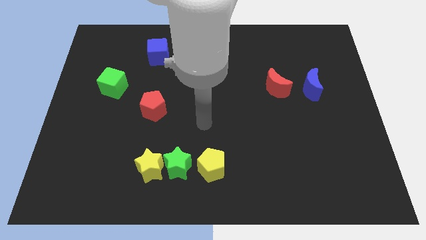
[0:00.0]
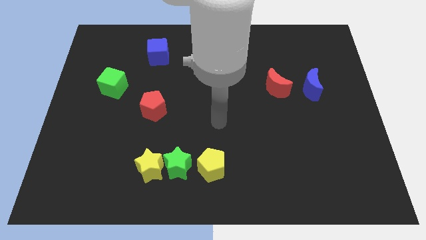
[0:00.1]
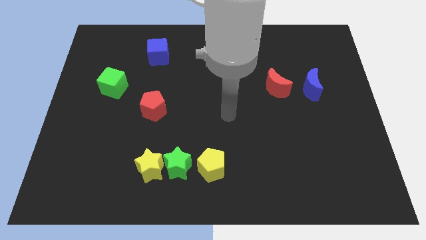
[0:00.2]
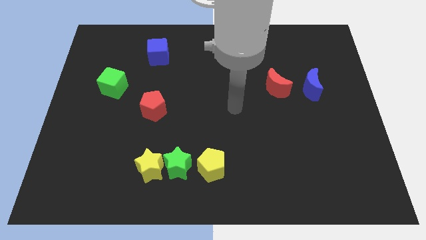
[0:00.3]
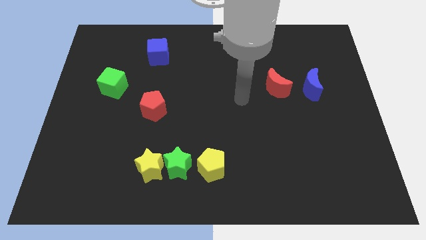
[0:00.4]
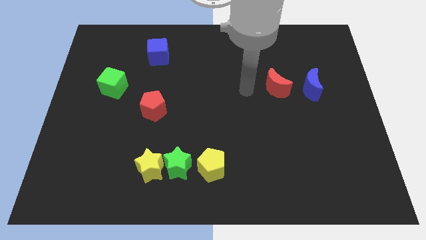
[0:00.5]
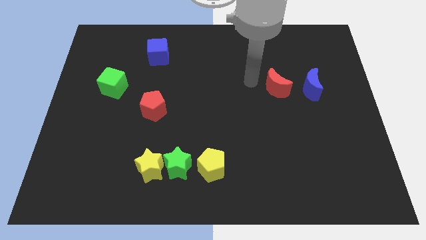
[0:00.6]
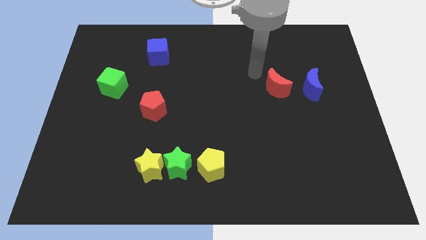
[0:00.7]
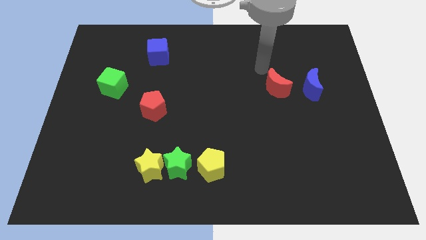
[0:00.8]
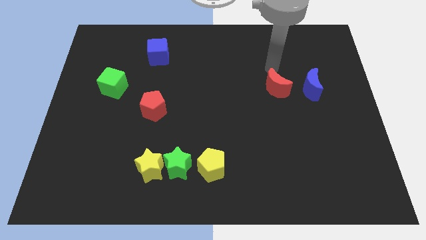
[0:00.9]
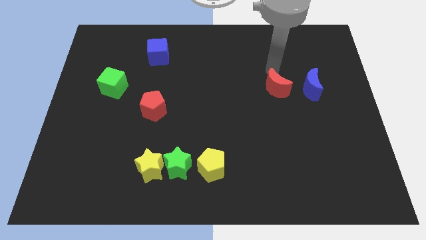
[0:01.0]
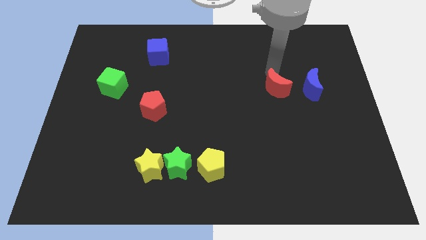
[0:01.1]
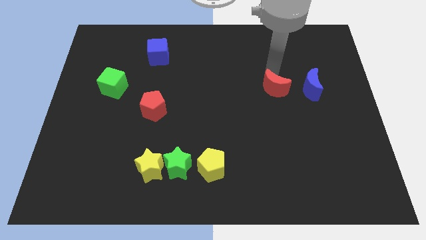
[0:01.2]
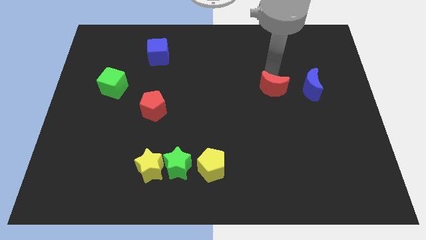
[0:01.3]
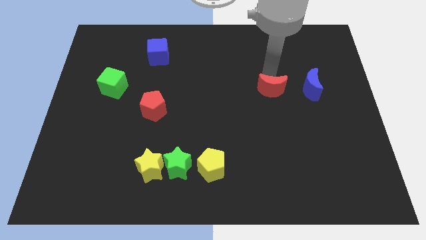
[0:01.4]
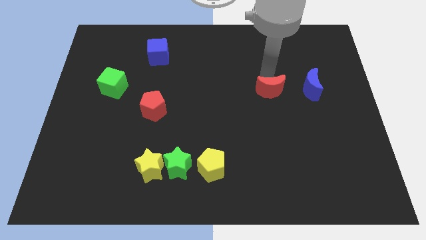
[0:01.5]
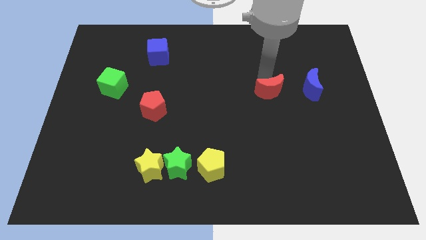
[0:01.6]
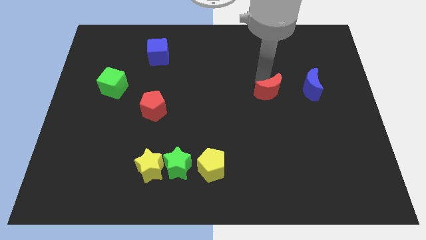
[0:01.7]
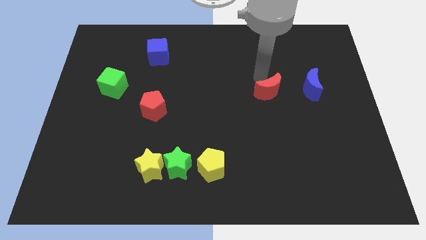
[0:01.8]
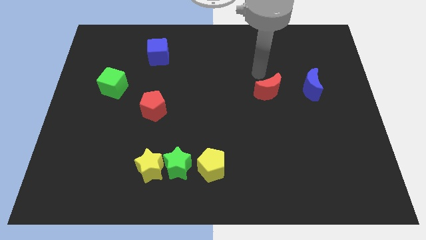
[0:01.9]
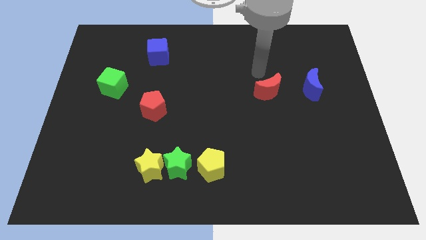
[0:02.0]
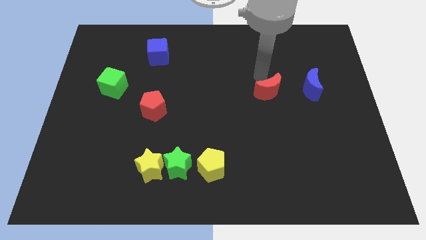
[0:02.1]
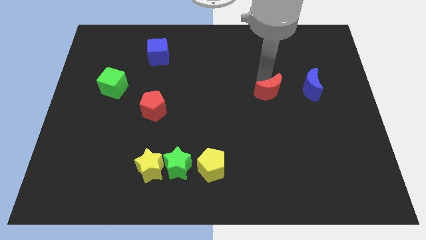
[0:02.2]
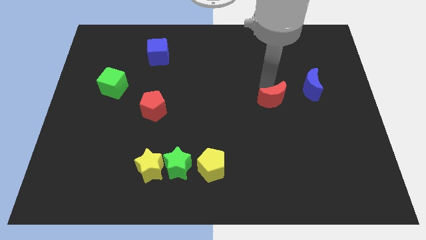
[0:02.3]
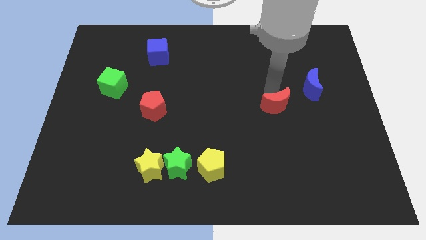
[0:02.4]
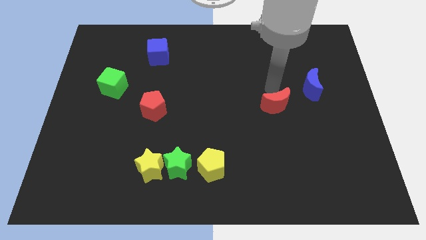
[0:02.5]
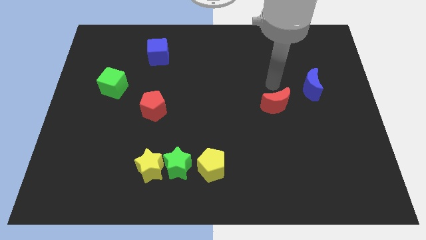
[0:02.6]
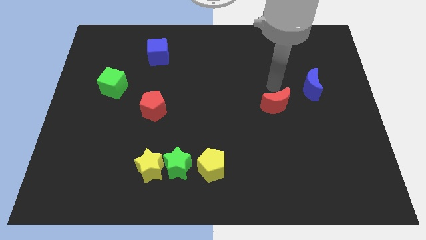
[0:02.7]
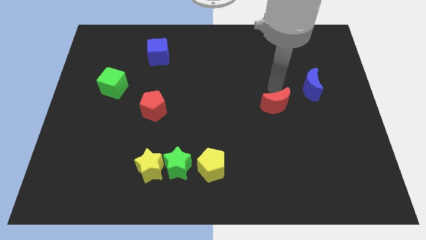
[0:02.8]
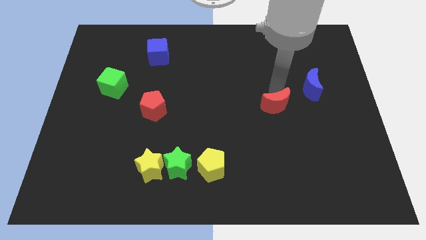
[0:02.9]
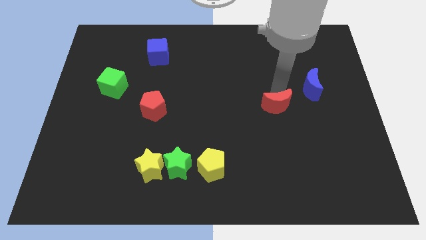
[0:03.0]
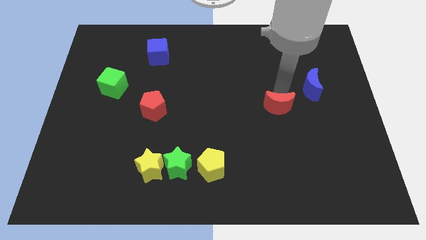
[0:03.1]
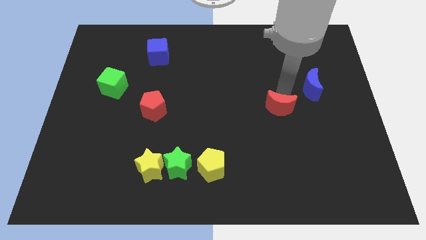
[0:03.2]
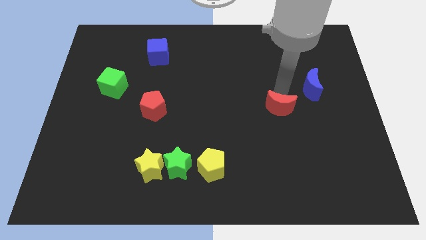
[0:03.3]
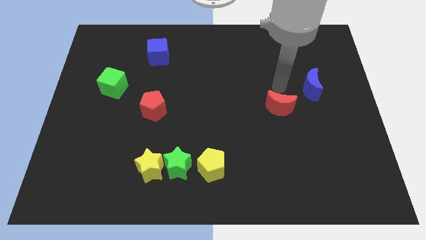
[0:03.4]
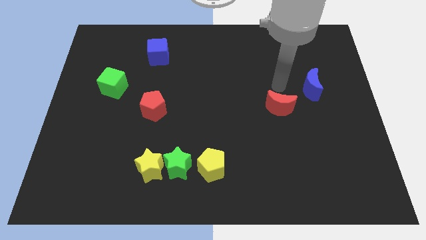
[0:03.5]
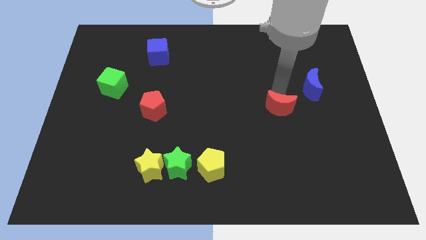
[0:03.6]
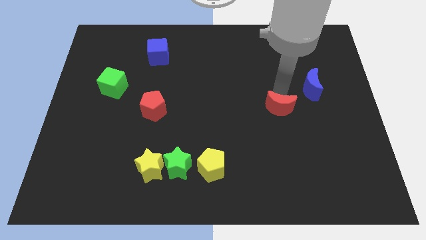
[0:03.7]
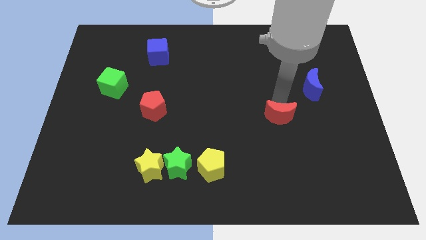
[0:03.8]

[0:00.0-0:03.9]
move the red moon downwards a little

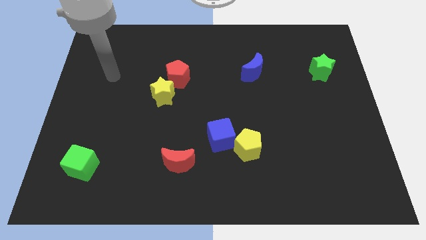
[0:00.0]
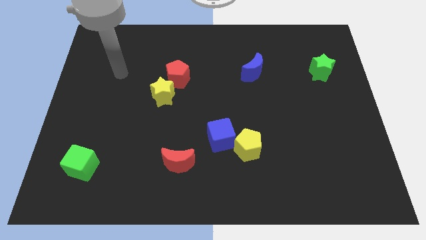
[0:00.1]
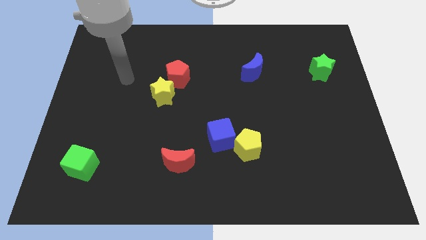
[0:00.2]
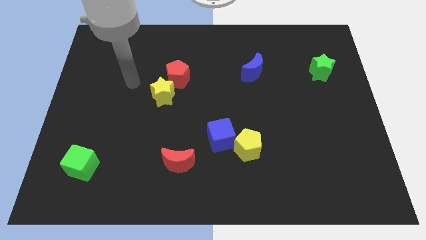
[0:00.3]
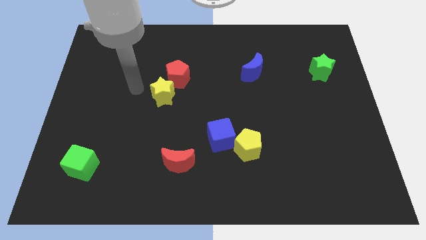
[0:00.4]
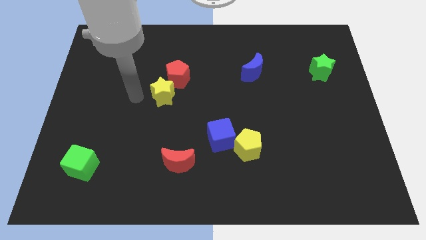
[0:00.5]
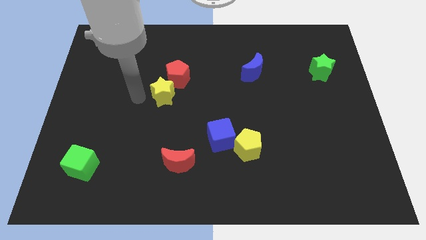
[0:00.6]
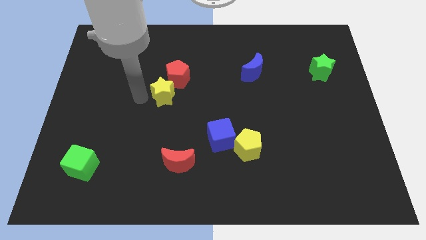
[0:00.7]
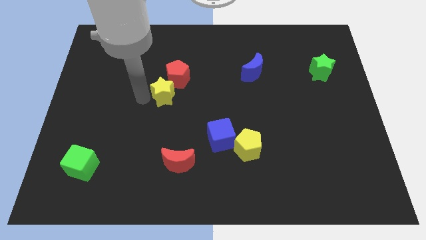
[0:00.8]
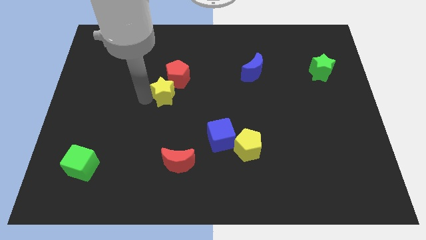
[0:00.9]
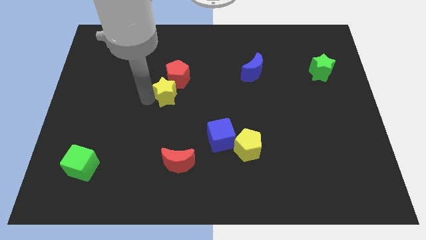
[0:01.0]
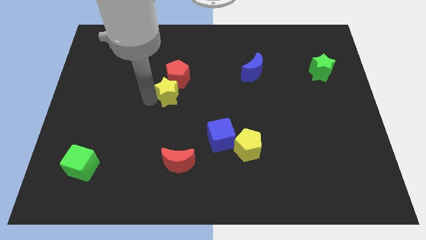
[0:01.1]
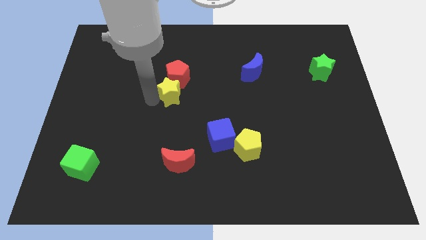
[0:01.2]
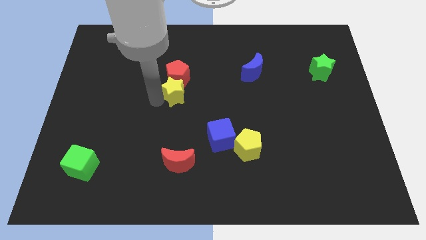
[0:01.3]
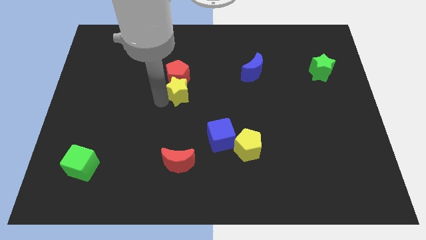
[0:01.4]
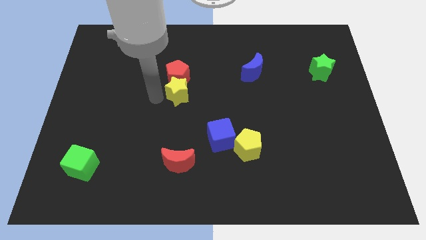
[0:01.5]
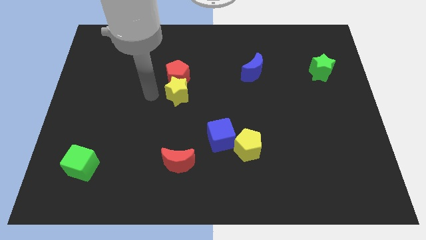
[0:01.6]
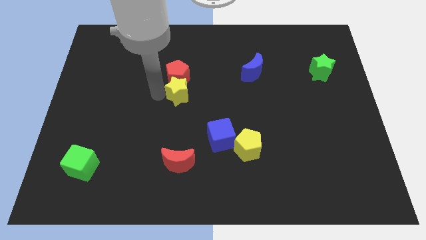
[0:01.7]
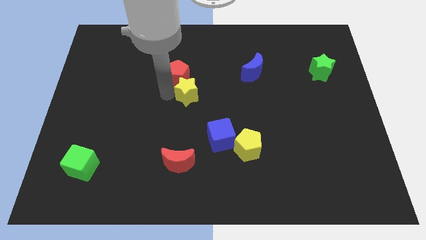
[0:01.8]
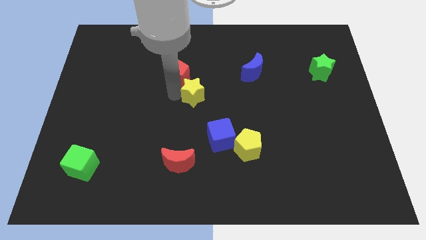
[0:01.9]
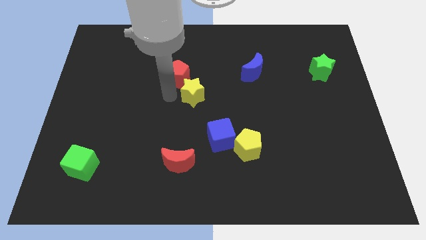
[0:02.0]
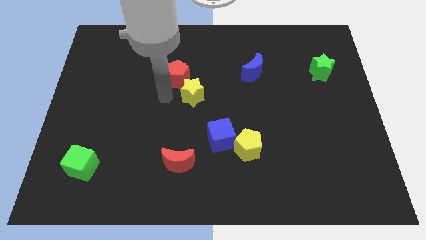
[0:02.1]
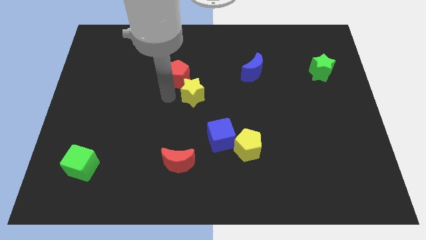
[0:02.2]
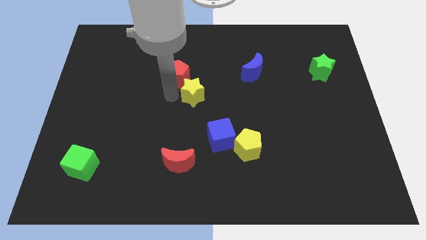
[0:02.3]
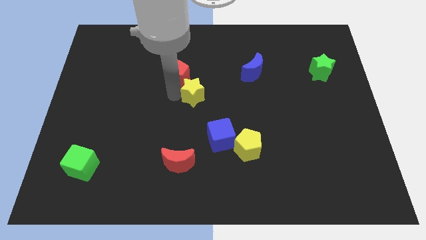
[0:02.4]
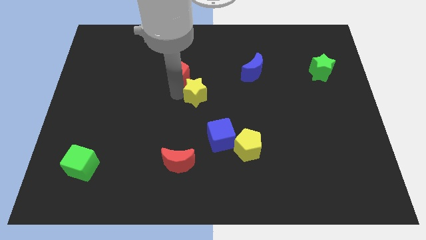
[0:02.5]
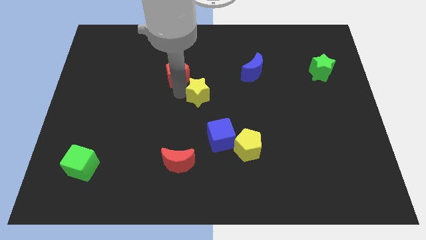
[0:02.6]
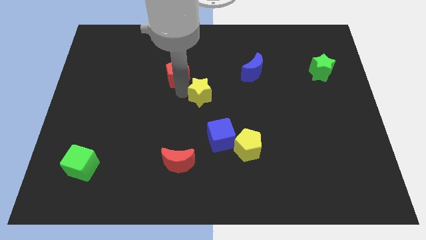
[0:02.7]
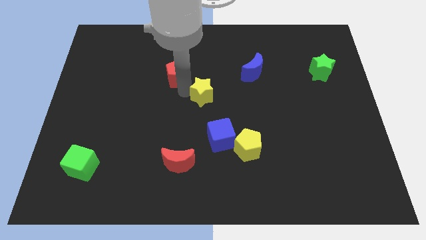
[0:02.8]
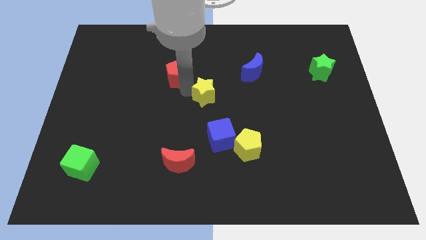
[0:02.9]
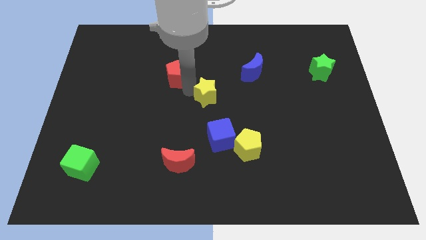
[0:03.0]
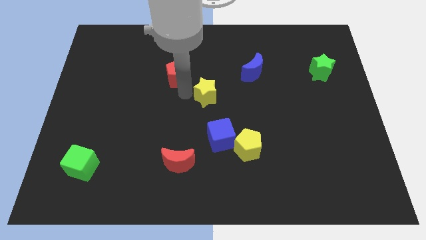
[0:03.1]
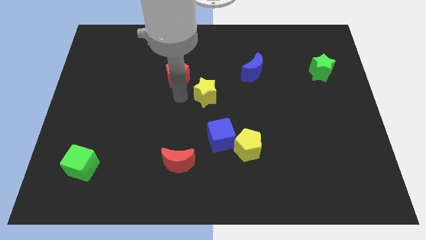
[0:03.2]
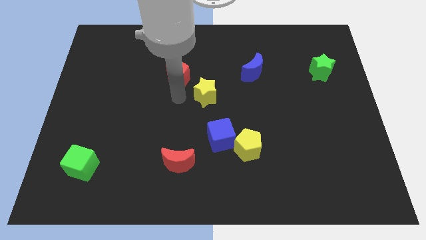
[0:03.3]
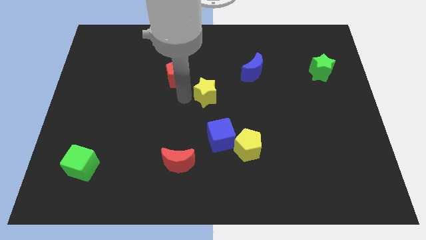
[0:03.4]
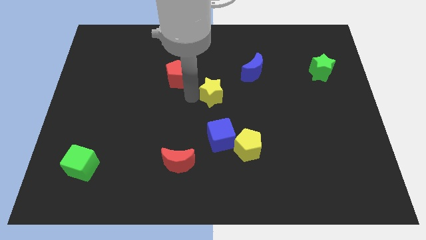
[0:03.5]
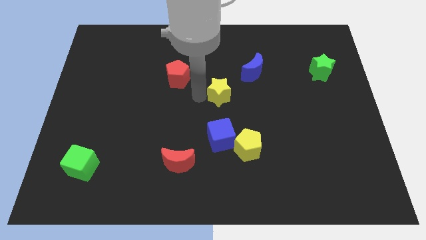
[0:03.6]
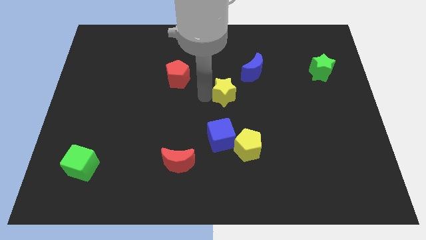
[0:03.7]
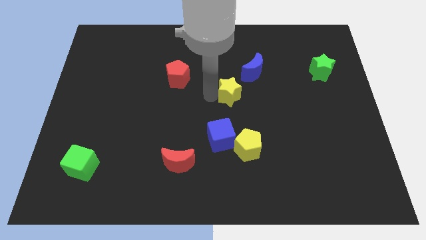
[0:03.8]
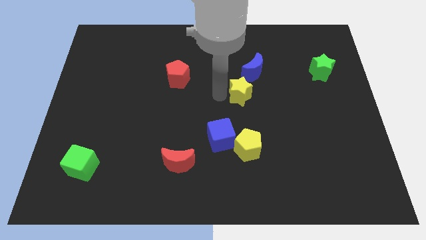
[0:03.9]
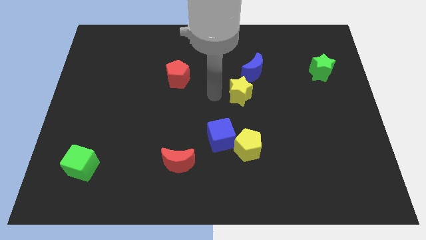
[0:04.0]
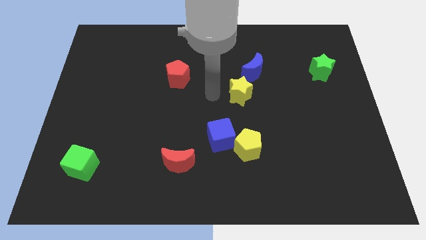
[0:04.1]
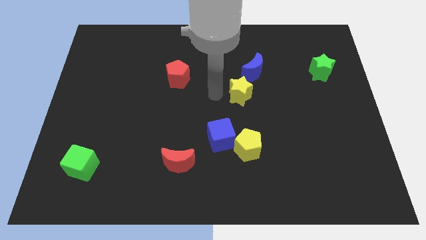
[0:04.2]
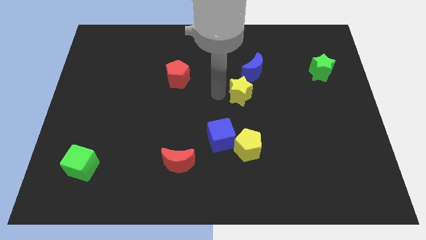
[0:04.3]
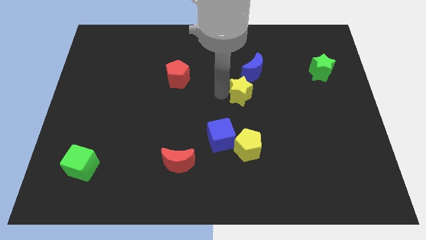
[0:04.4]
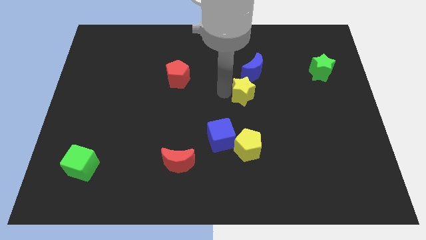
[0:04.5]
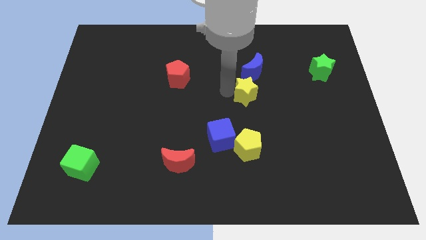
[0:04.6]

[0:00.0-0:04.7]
slide the yellow star right
